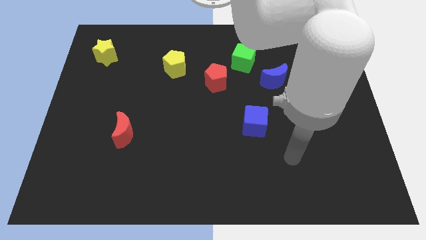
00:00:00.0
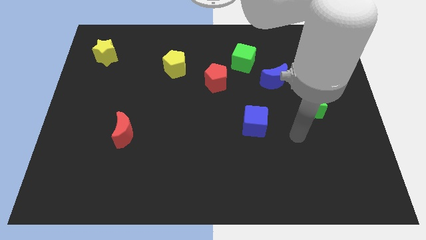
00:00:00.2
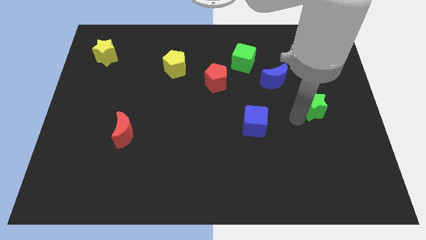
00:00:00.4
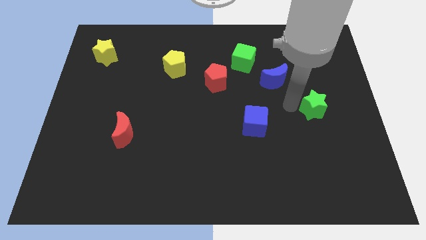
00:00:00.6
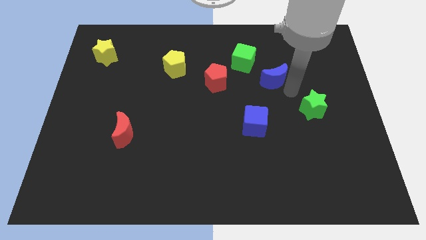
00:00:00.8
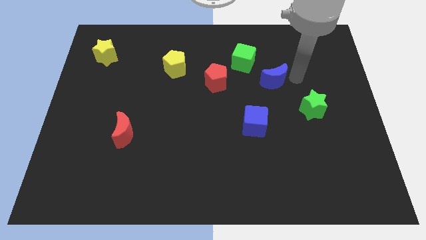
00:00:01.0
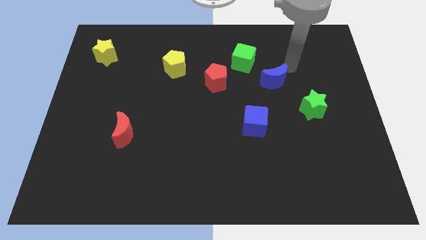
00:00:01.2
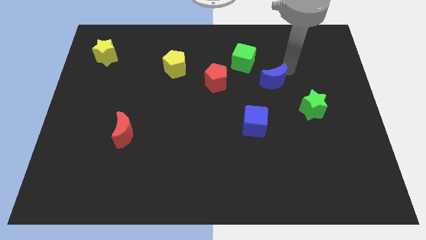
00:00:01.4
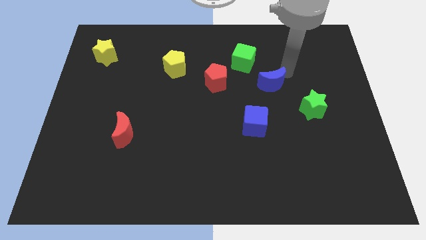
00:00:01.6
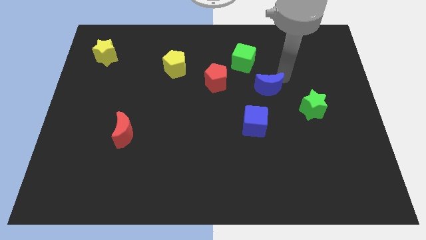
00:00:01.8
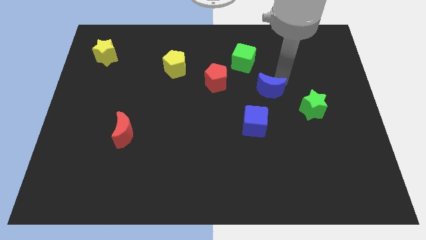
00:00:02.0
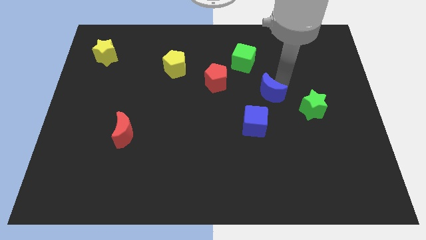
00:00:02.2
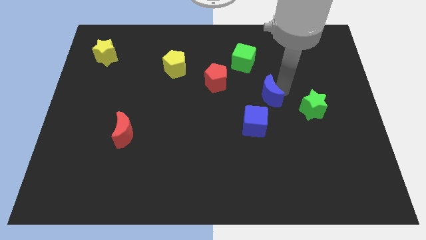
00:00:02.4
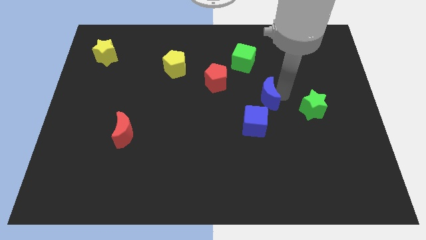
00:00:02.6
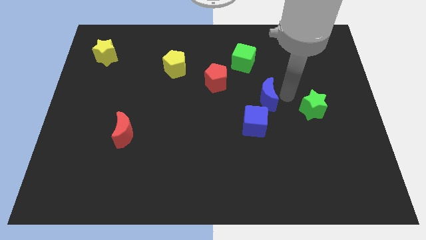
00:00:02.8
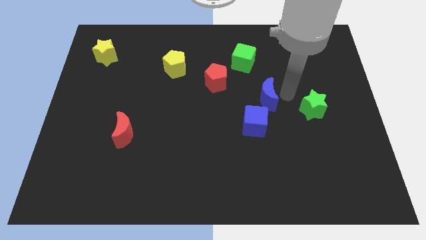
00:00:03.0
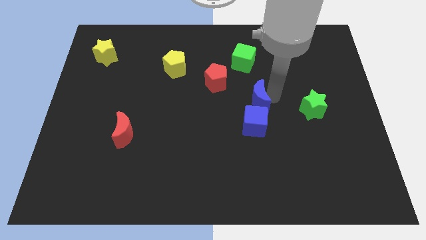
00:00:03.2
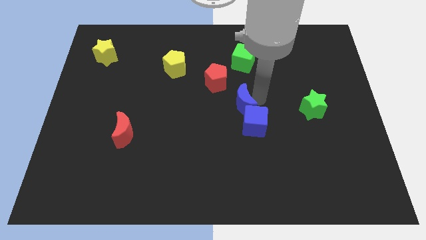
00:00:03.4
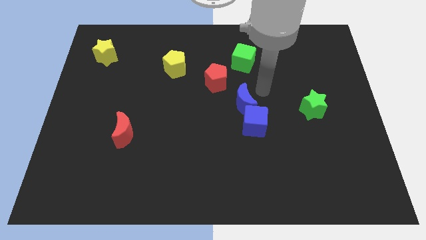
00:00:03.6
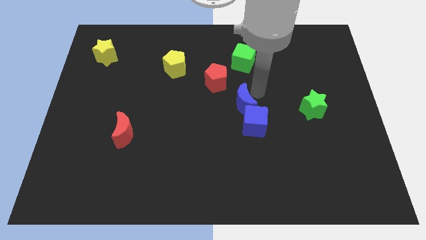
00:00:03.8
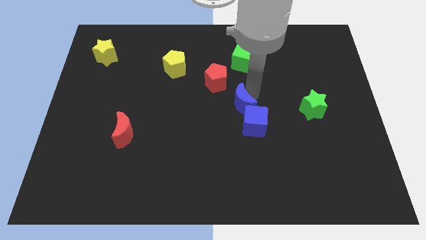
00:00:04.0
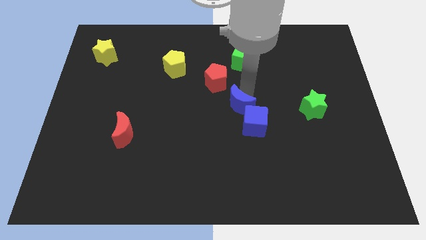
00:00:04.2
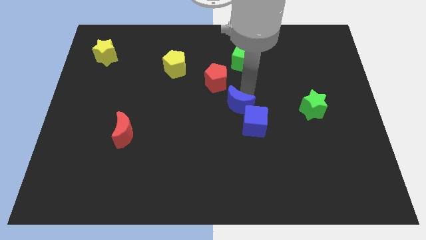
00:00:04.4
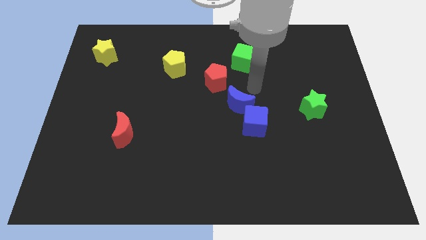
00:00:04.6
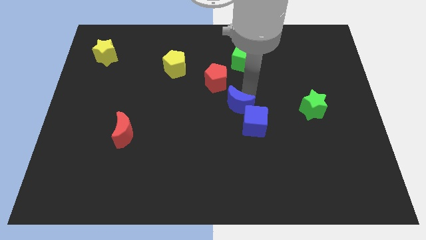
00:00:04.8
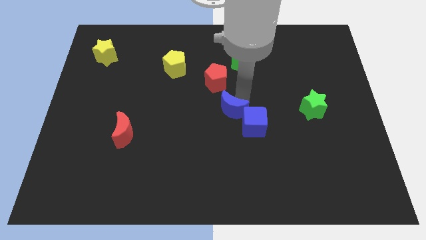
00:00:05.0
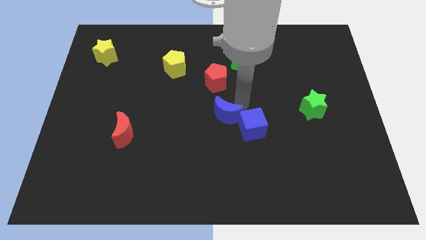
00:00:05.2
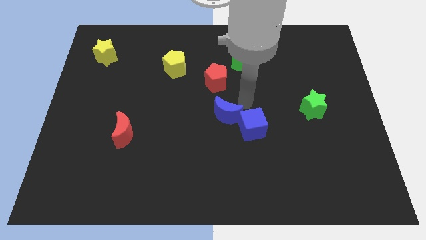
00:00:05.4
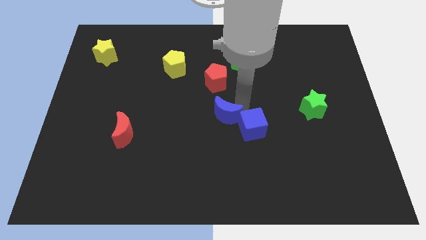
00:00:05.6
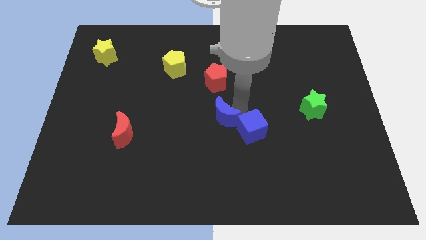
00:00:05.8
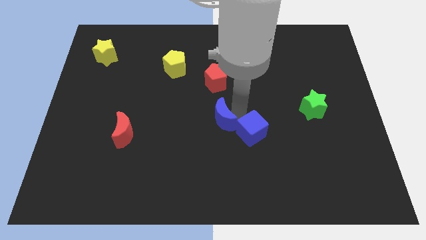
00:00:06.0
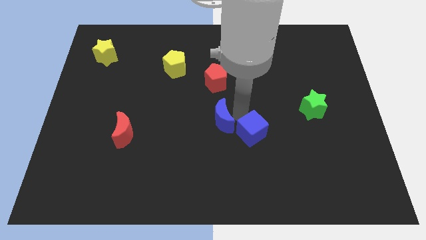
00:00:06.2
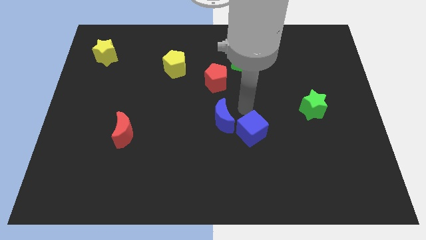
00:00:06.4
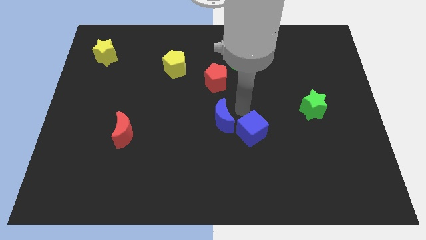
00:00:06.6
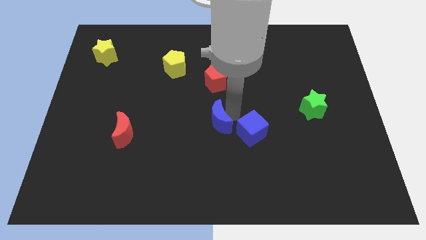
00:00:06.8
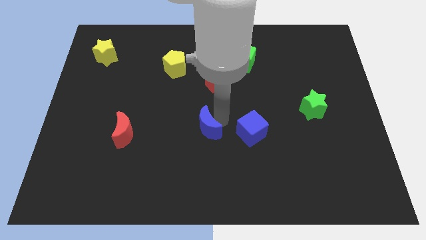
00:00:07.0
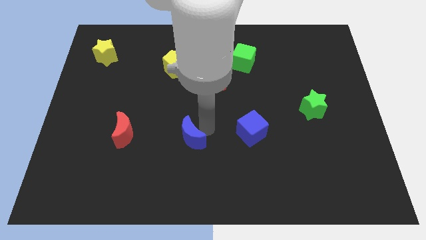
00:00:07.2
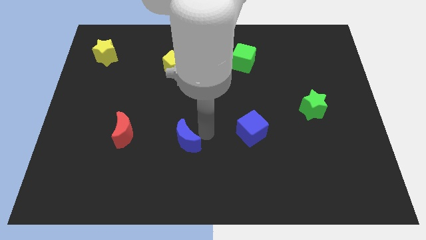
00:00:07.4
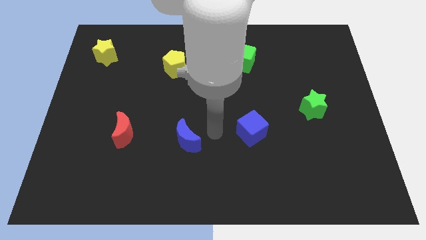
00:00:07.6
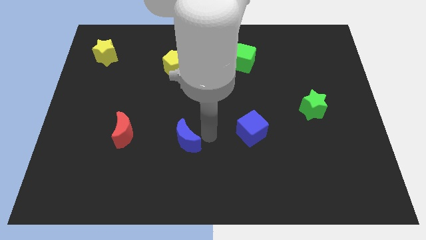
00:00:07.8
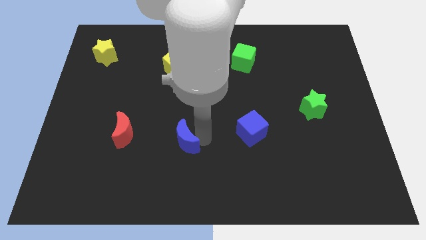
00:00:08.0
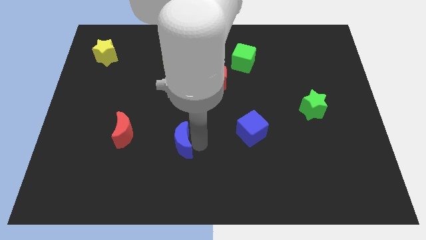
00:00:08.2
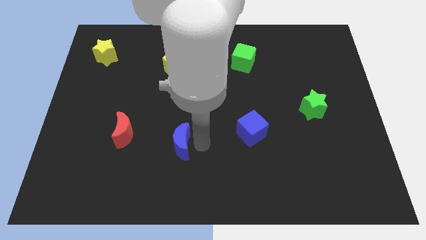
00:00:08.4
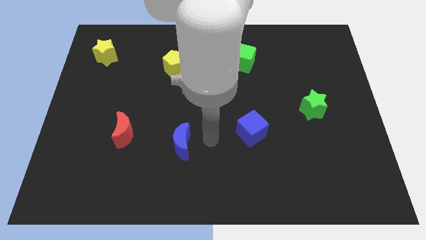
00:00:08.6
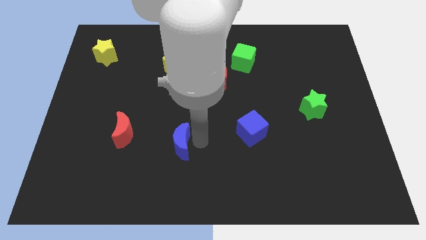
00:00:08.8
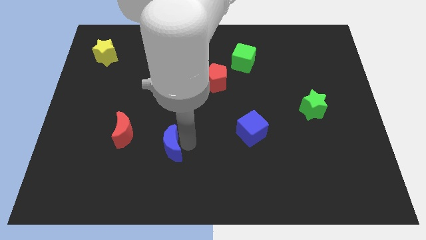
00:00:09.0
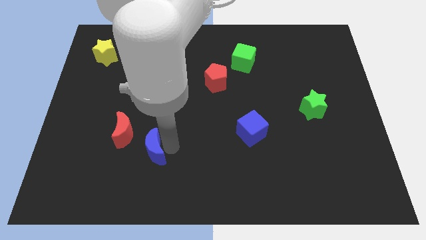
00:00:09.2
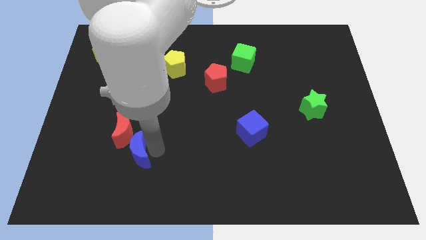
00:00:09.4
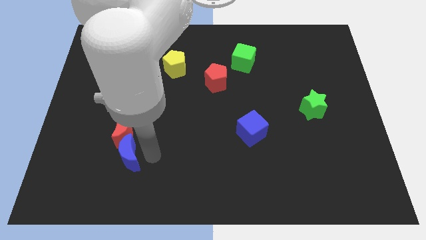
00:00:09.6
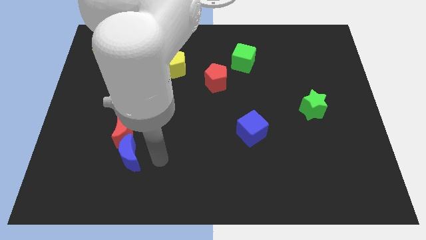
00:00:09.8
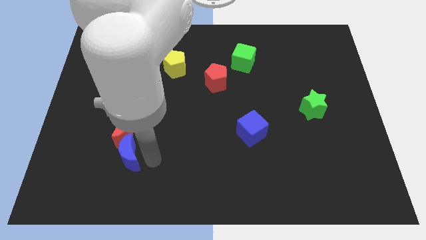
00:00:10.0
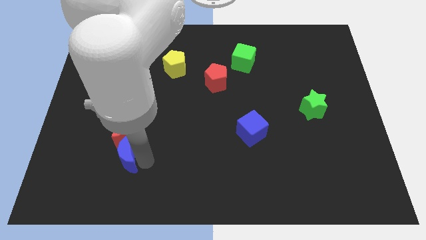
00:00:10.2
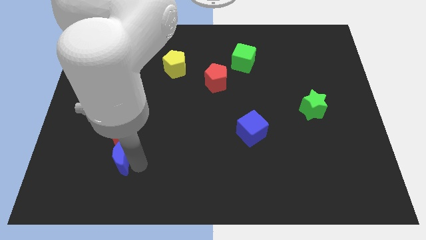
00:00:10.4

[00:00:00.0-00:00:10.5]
push the blue moon diagonally down and to the left of the red moon

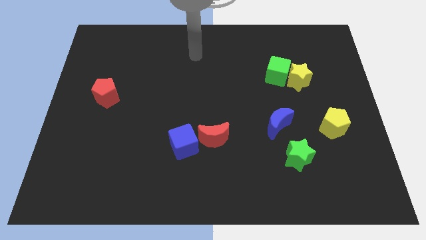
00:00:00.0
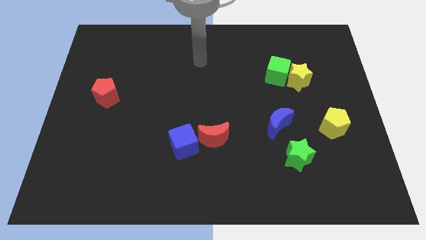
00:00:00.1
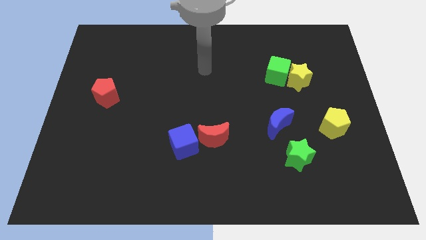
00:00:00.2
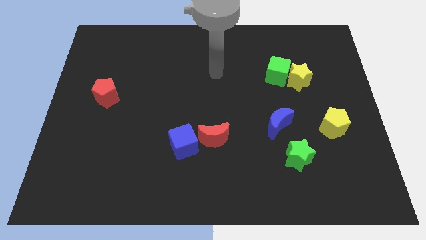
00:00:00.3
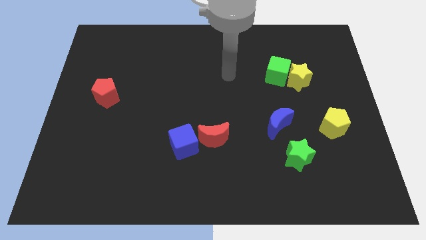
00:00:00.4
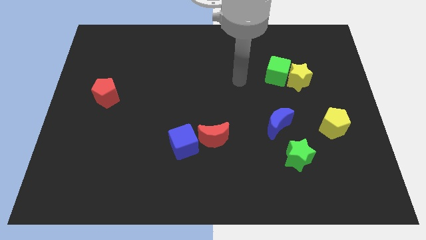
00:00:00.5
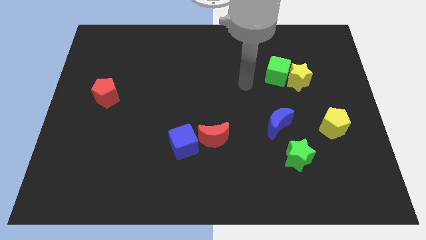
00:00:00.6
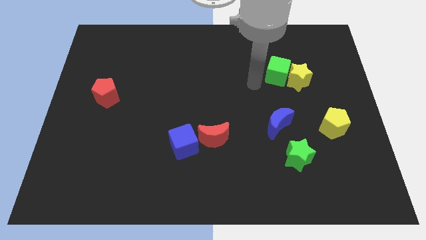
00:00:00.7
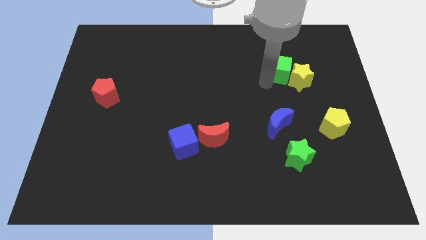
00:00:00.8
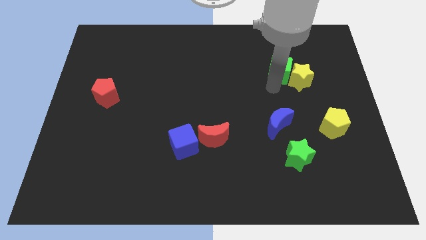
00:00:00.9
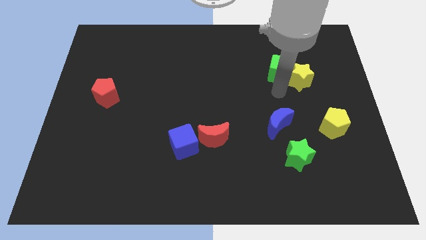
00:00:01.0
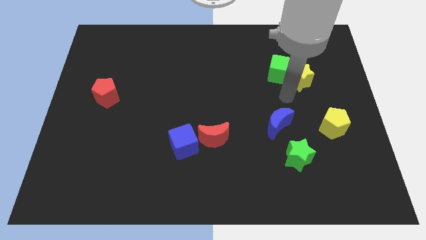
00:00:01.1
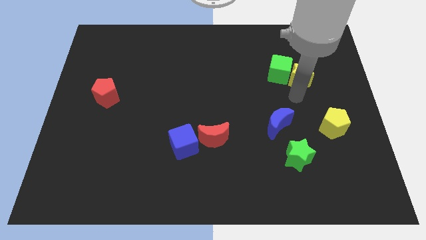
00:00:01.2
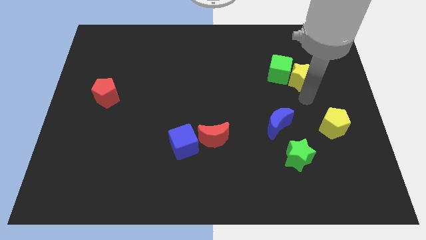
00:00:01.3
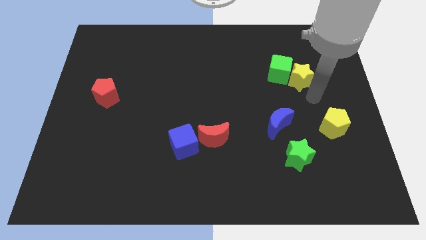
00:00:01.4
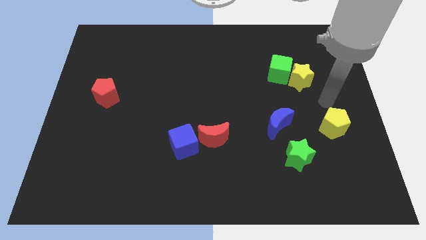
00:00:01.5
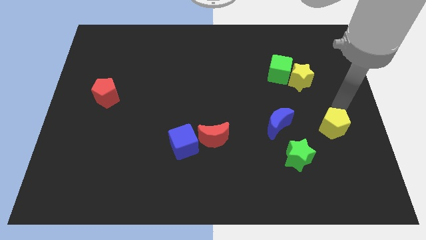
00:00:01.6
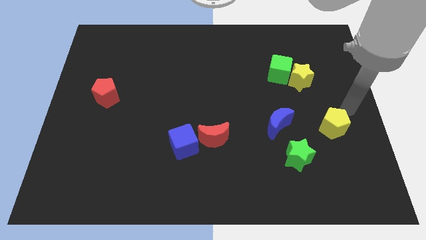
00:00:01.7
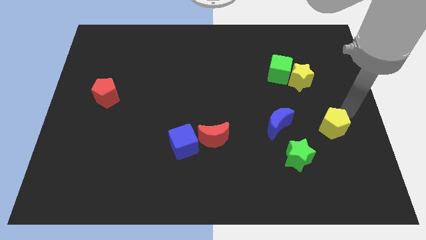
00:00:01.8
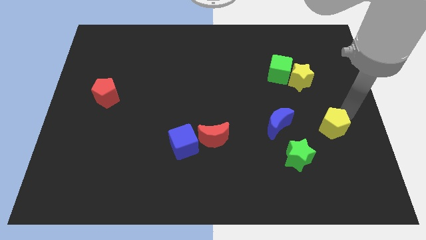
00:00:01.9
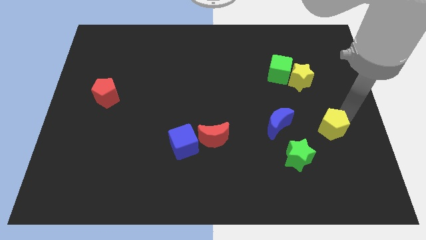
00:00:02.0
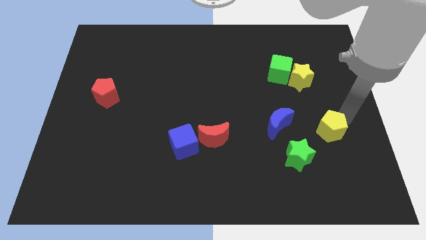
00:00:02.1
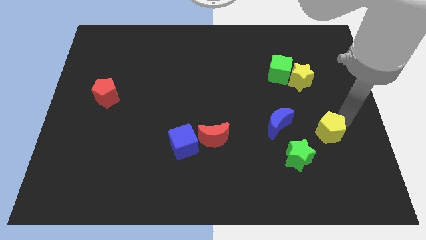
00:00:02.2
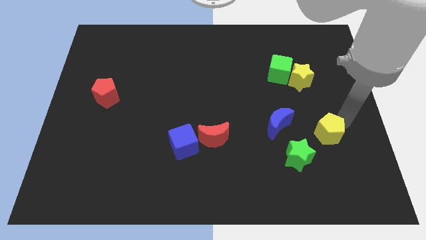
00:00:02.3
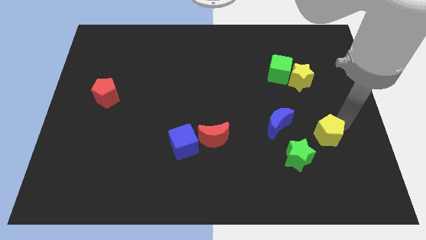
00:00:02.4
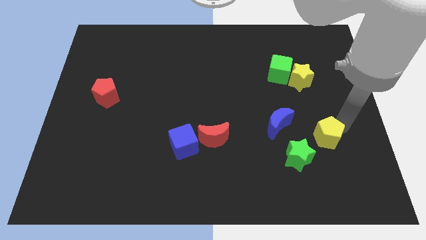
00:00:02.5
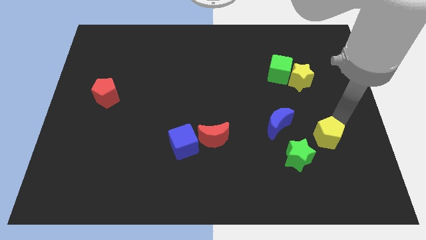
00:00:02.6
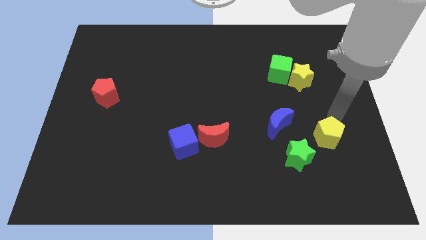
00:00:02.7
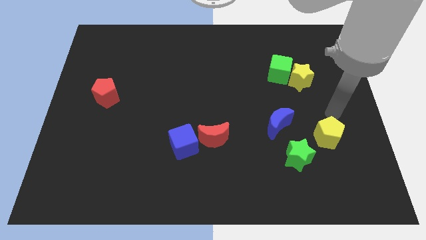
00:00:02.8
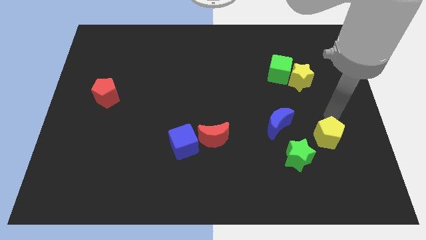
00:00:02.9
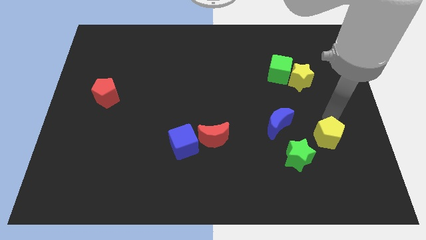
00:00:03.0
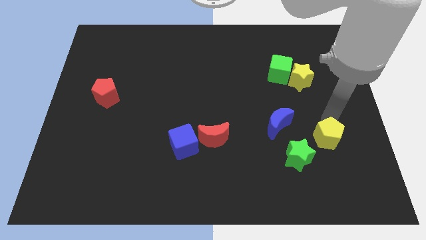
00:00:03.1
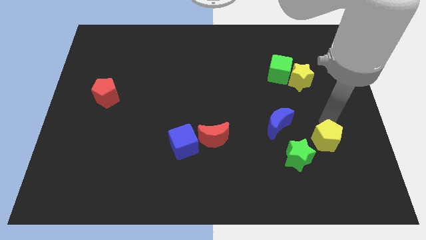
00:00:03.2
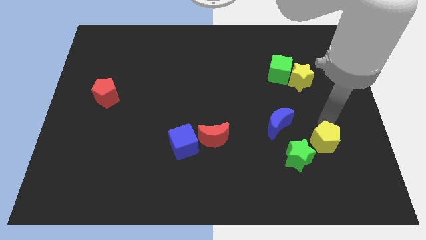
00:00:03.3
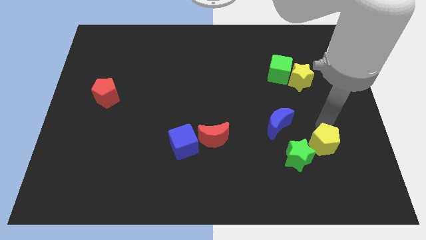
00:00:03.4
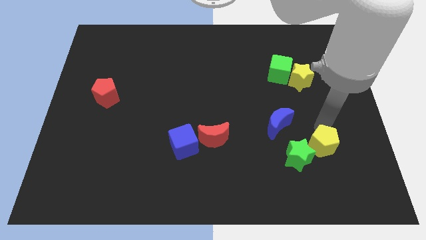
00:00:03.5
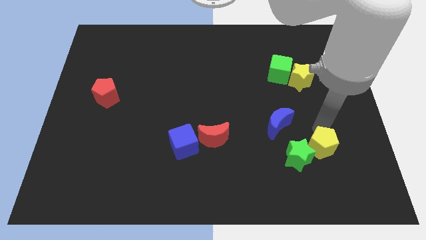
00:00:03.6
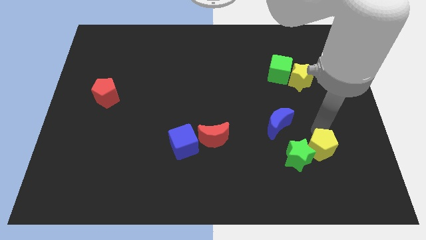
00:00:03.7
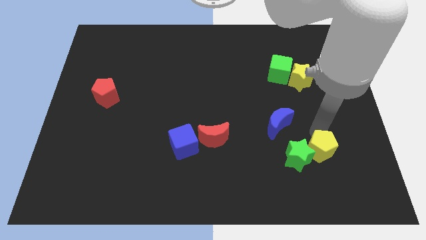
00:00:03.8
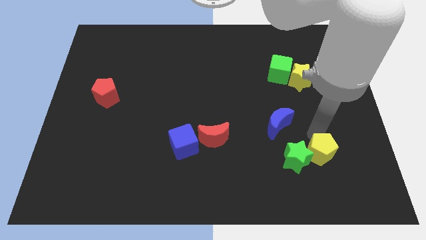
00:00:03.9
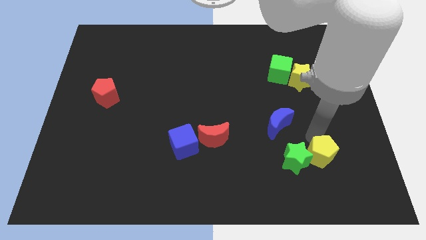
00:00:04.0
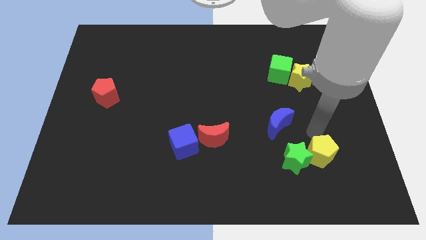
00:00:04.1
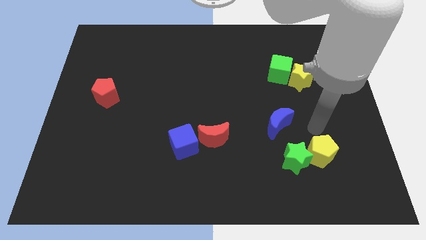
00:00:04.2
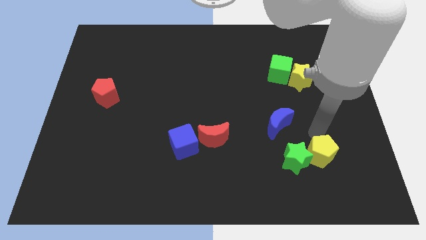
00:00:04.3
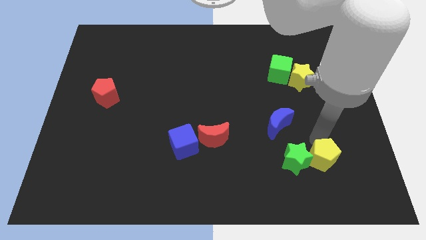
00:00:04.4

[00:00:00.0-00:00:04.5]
slide the yellow pentagon diagonally down and to the right of the green star
